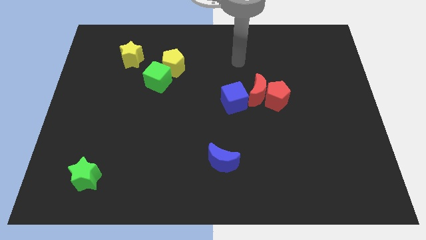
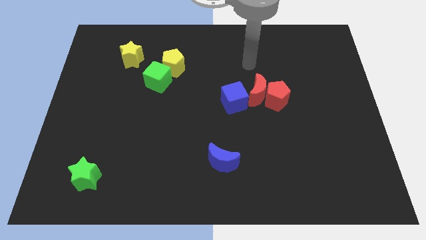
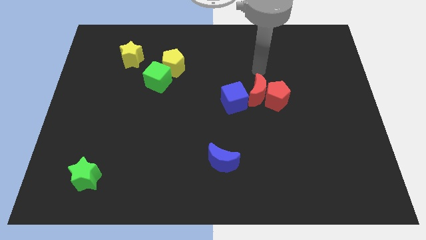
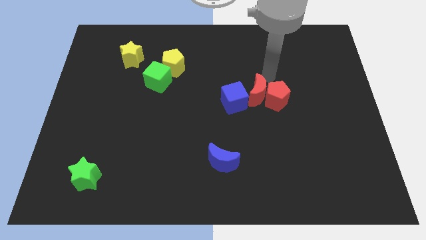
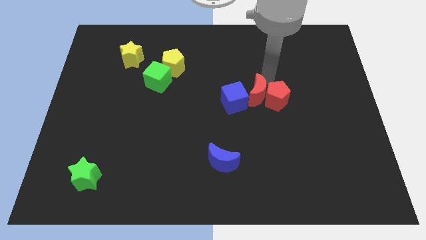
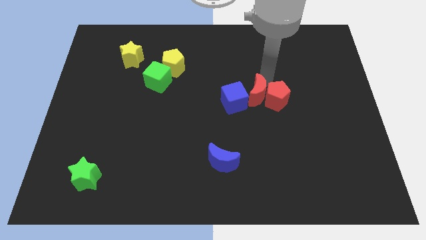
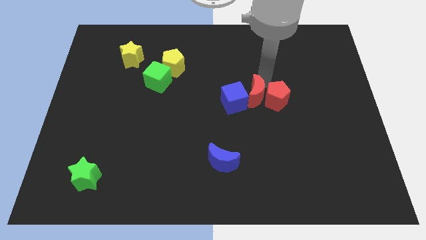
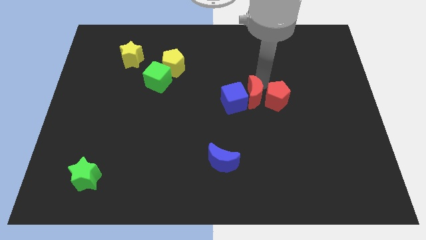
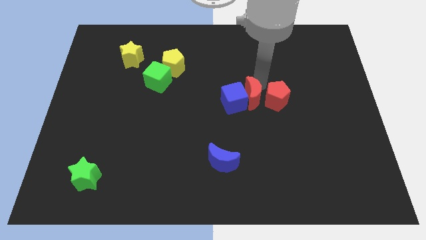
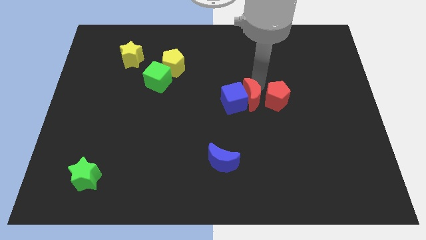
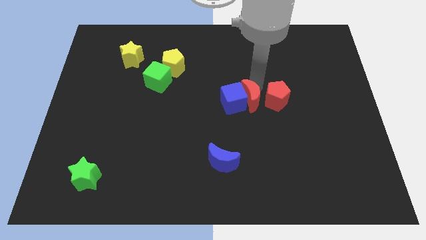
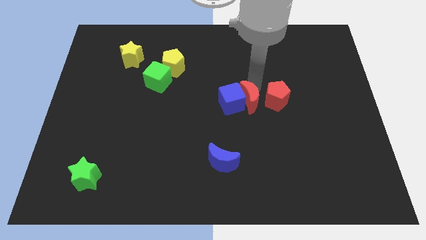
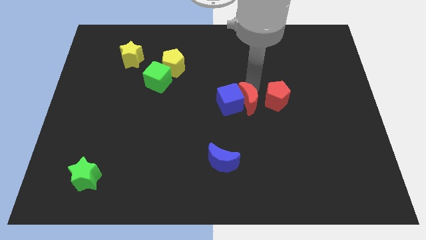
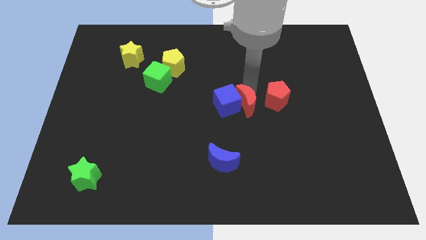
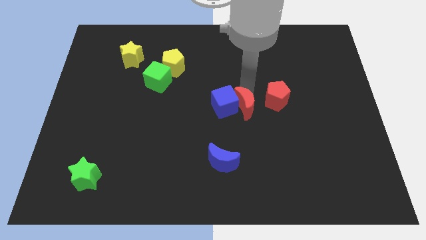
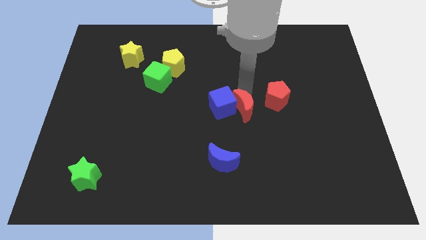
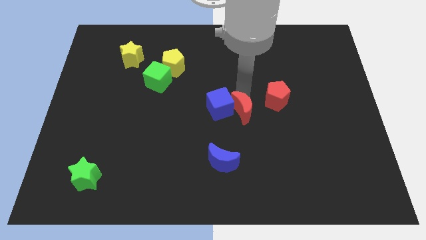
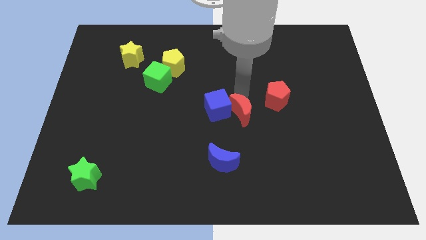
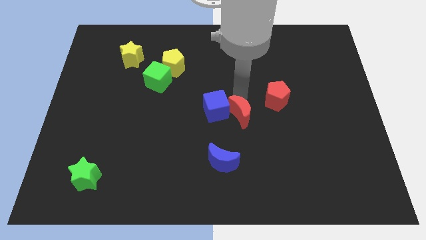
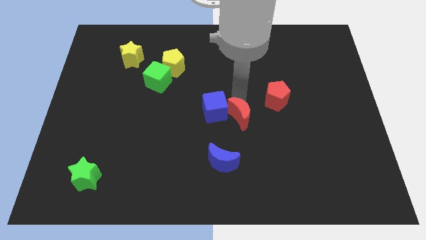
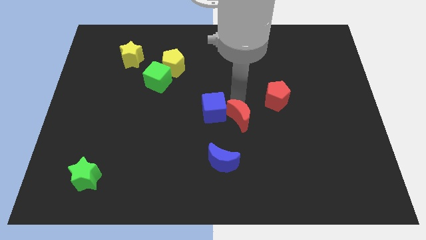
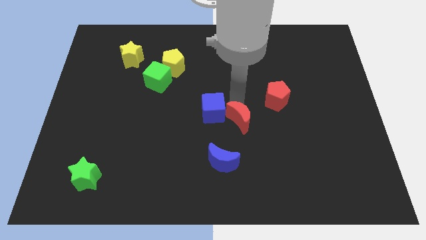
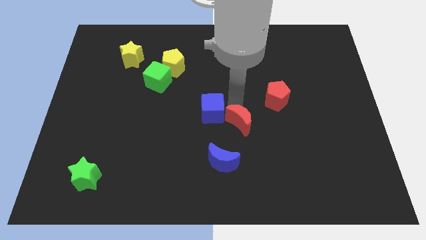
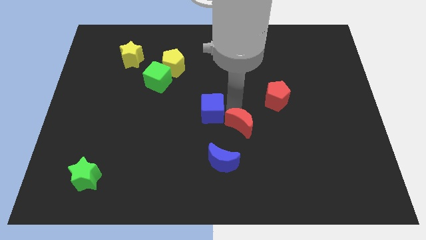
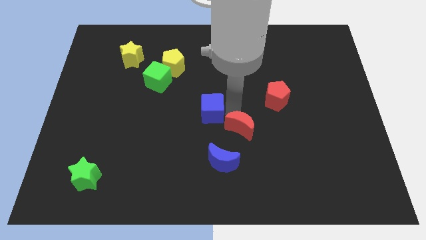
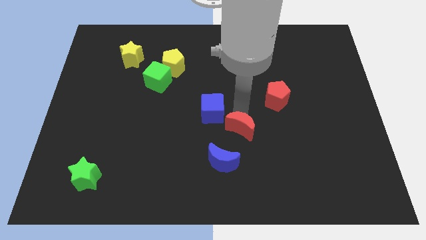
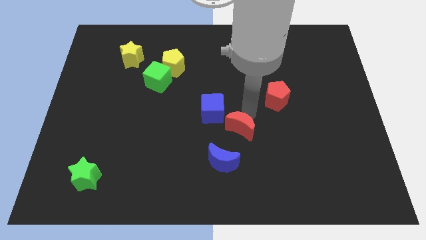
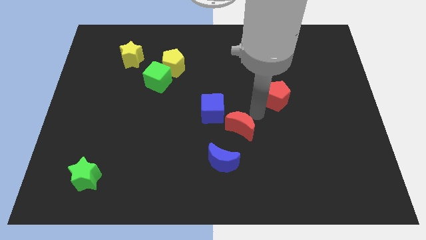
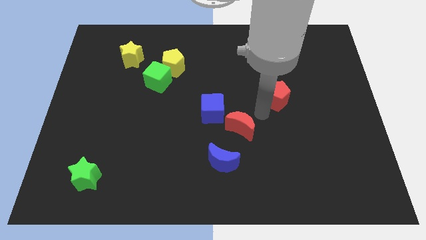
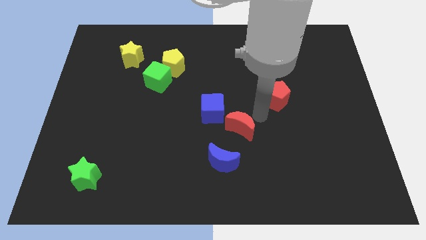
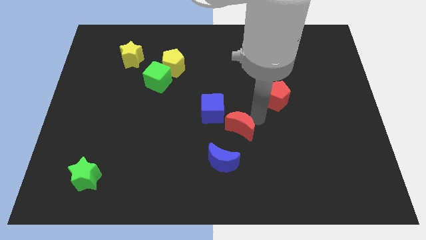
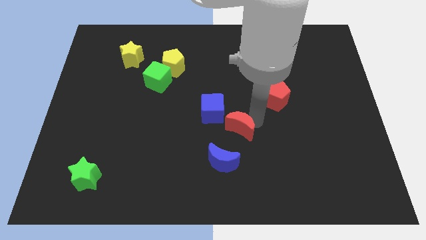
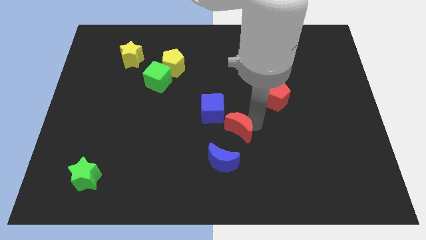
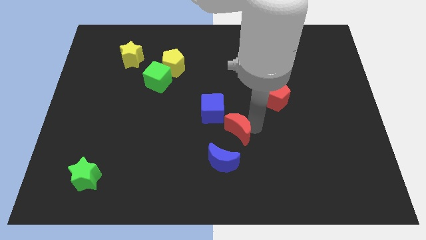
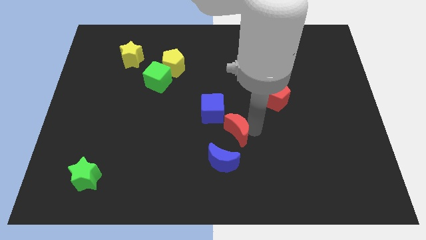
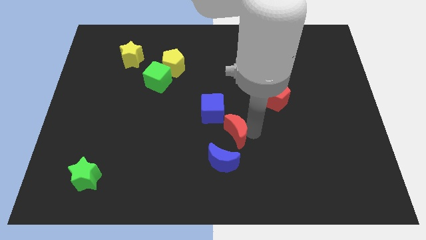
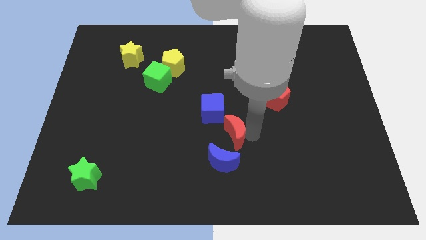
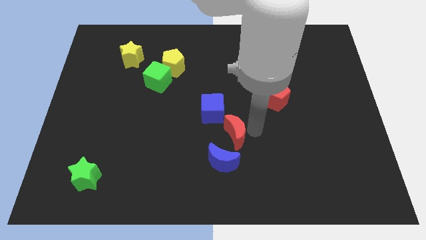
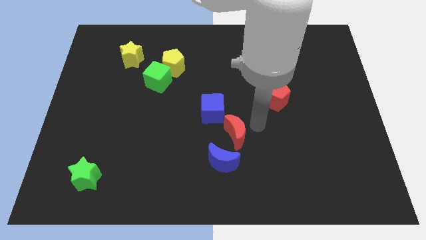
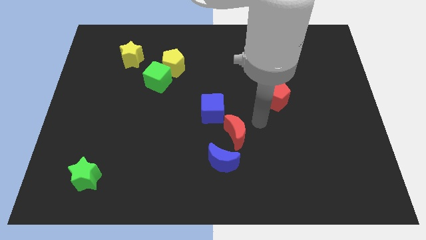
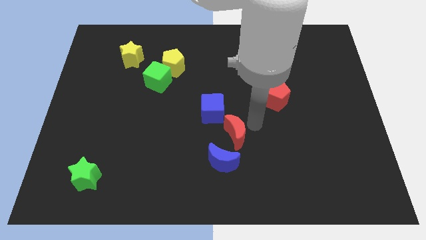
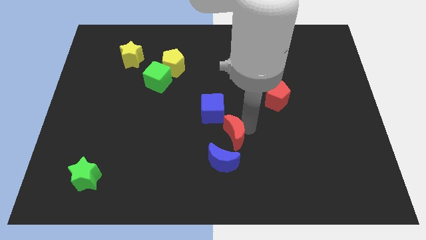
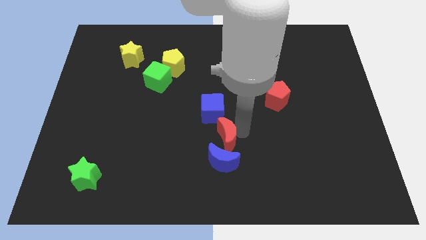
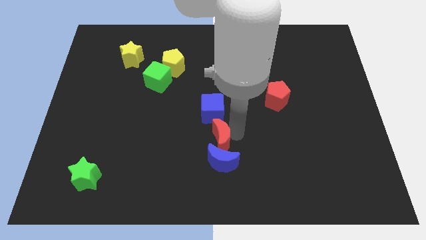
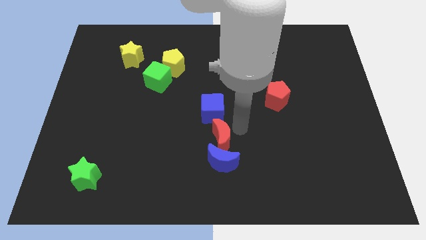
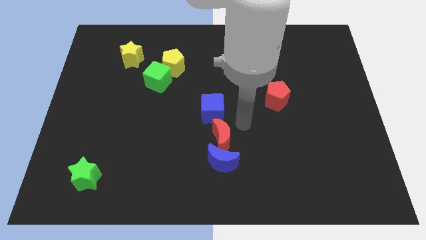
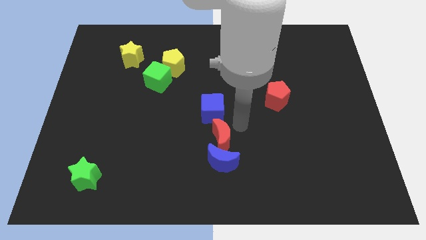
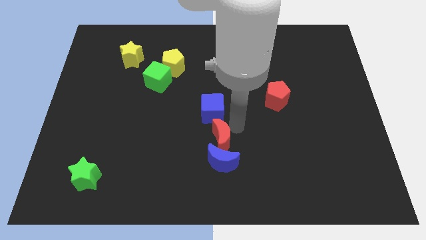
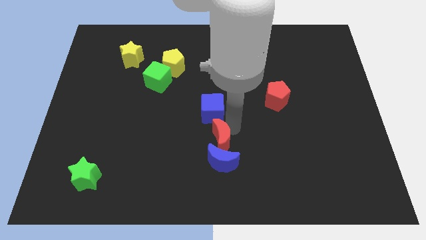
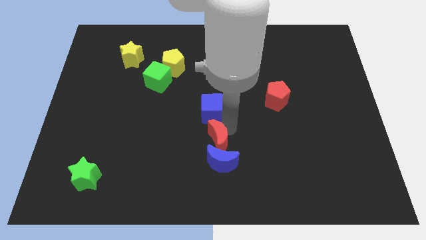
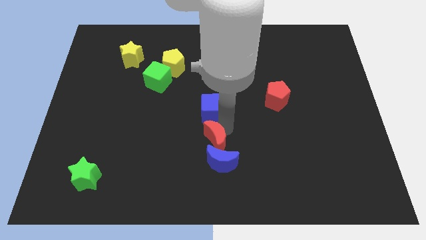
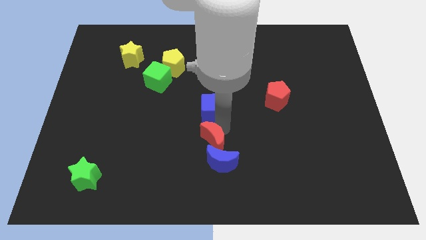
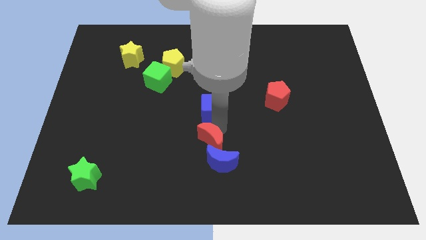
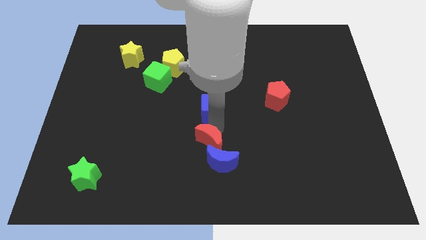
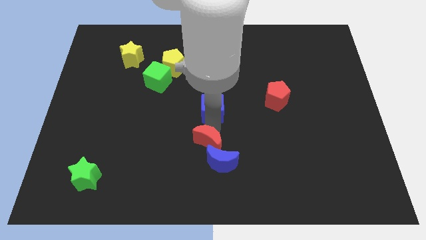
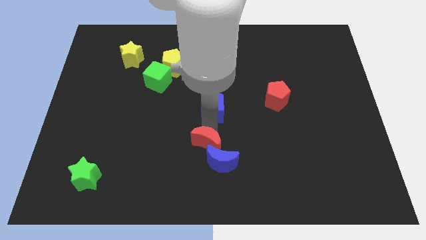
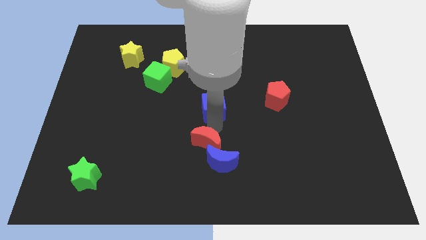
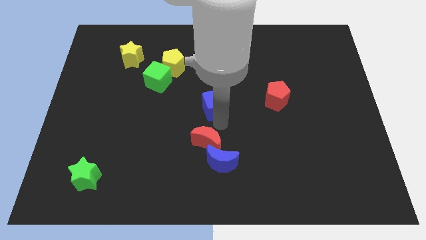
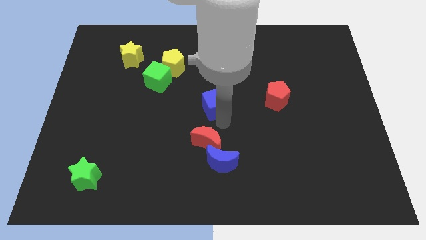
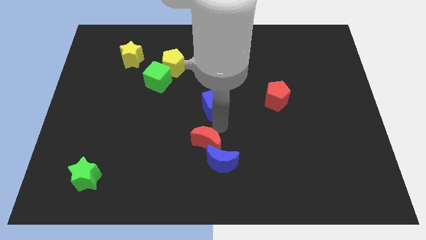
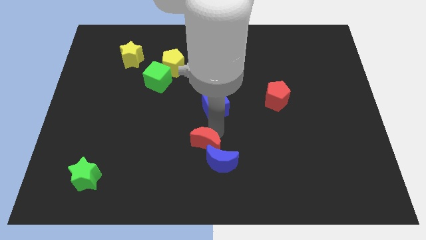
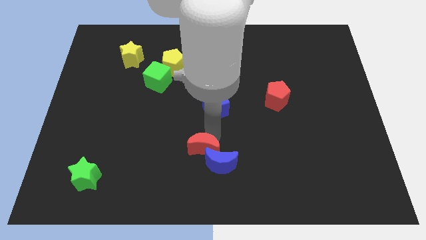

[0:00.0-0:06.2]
push the red moon downwards and left diagonally

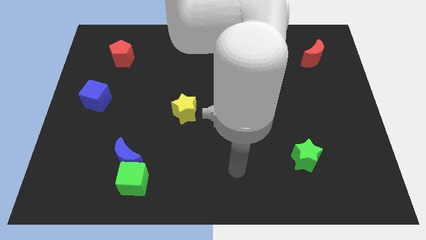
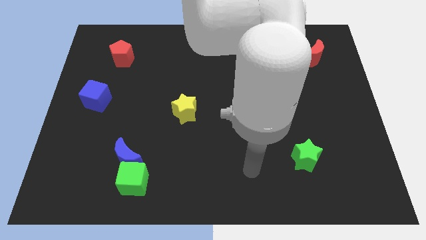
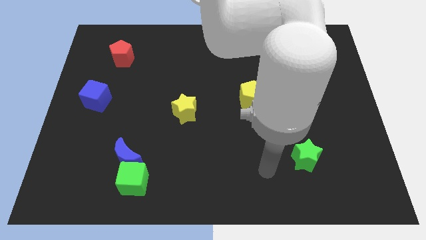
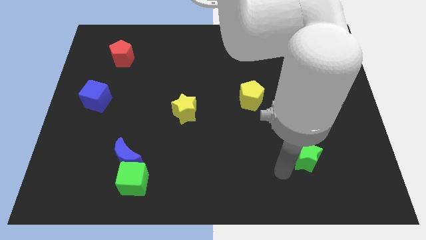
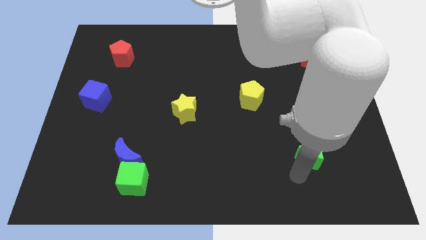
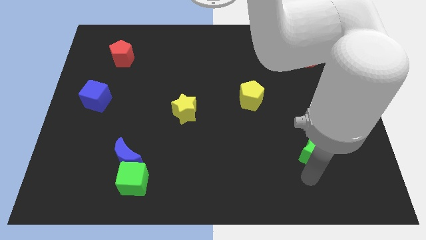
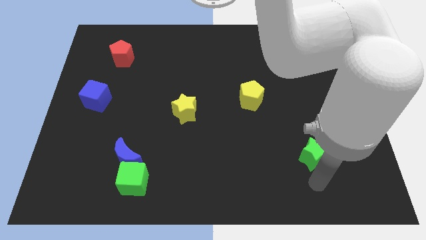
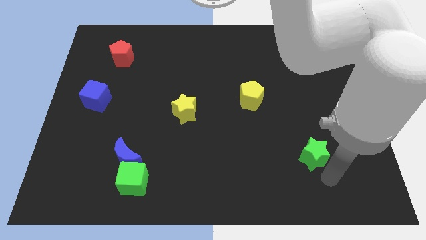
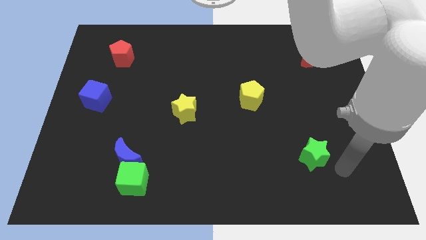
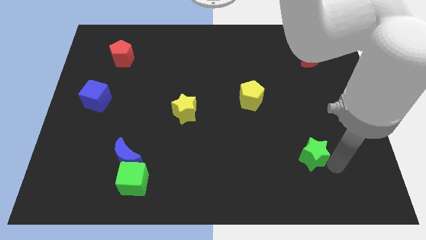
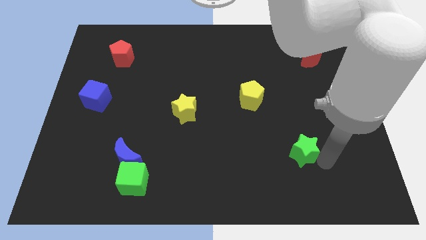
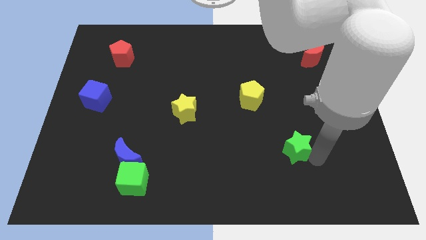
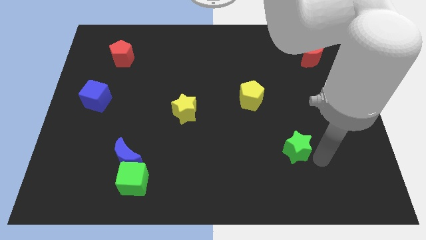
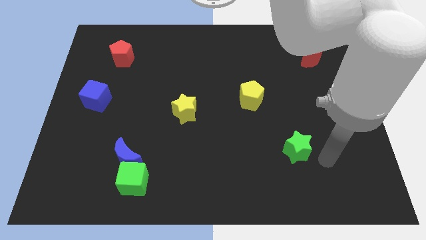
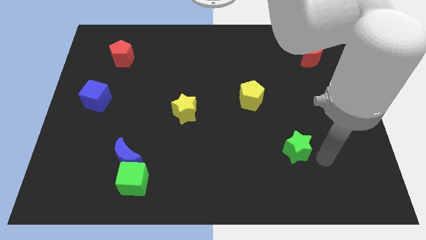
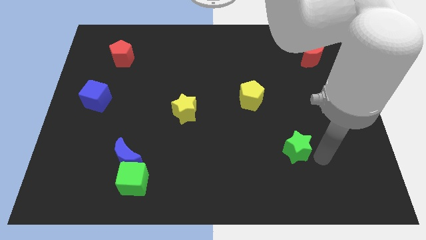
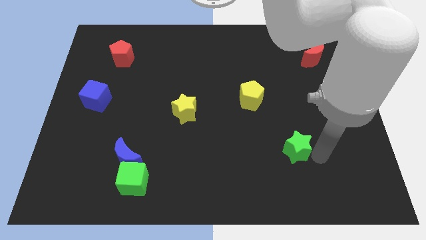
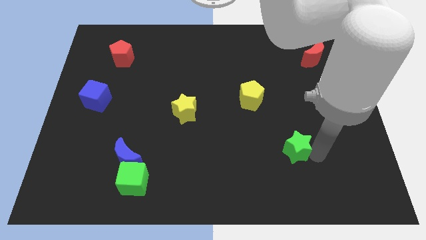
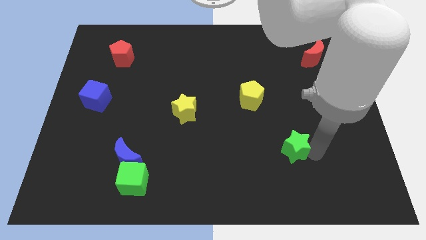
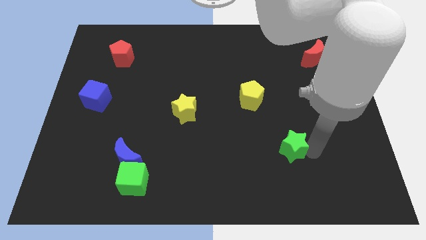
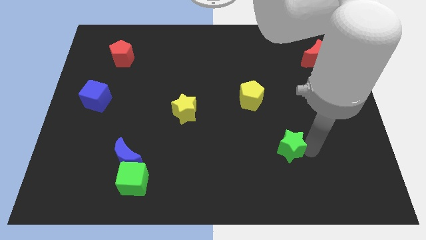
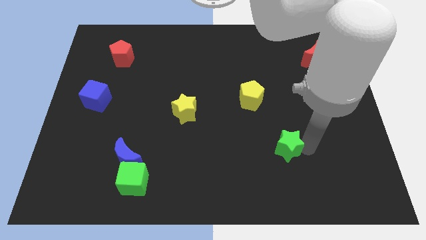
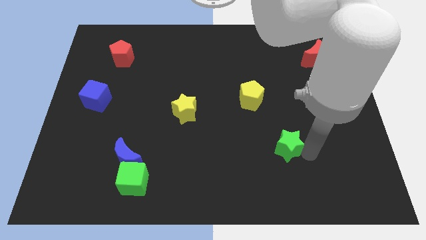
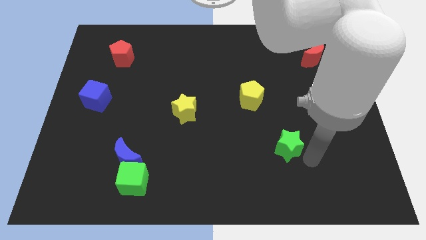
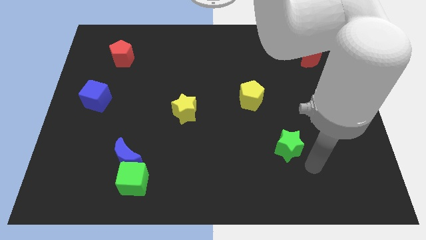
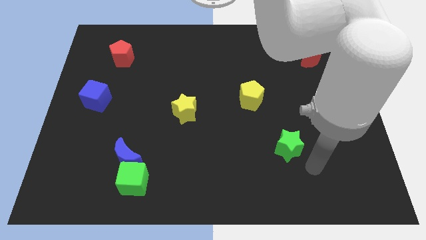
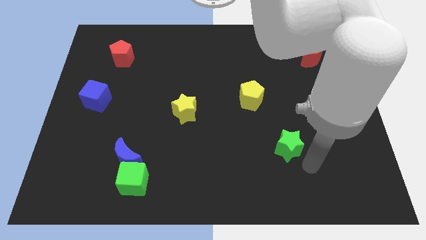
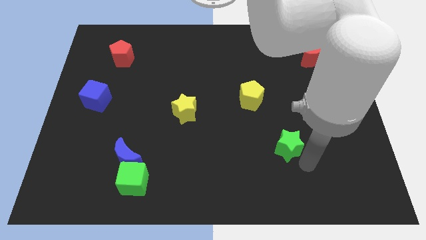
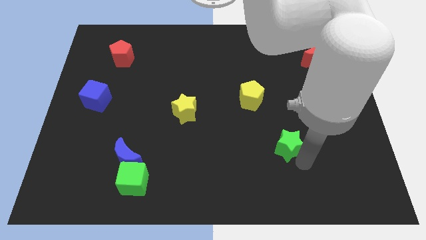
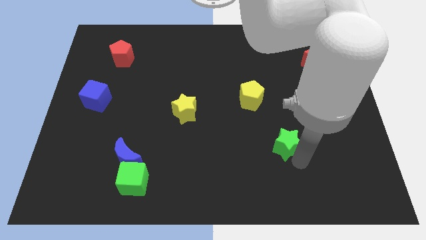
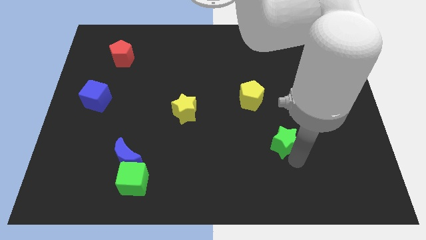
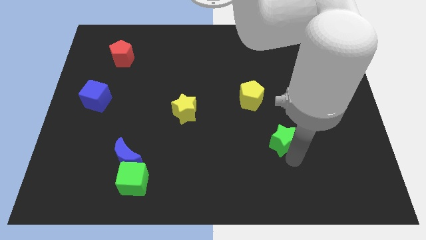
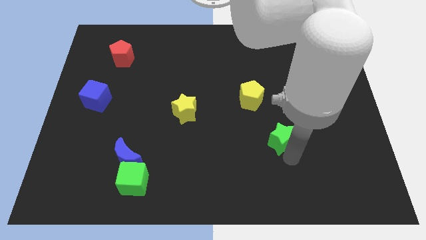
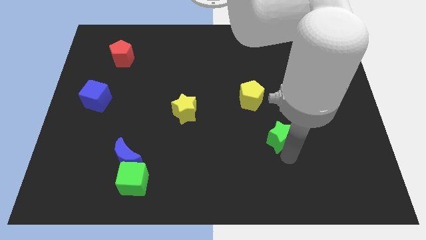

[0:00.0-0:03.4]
push the green star diagonally up and to the left slightly
